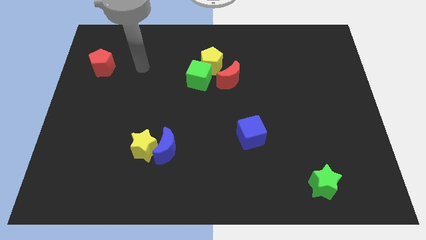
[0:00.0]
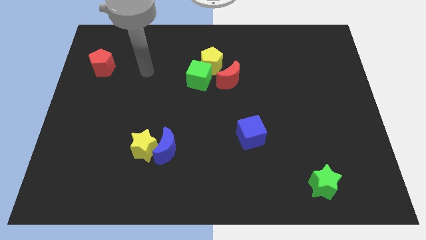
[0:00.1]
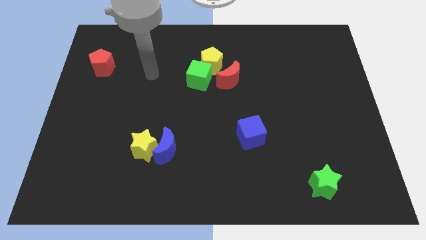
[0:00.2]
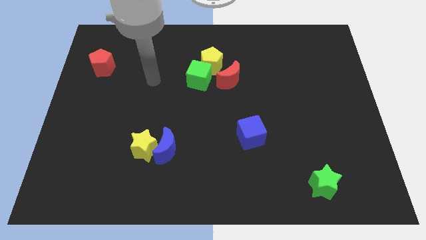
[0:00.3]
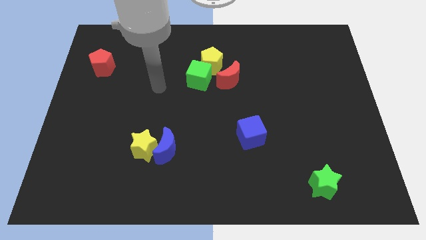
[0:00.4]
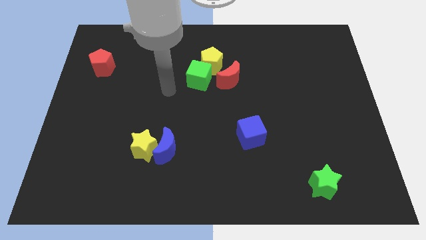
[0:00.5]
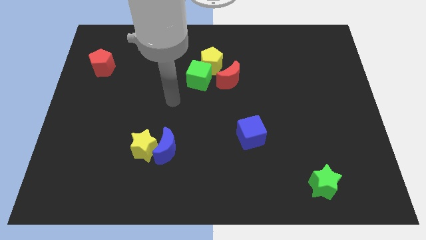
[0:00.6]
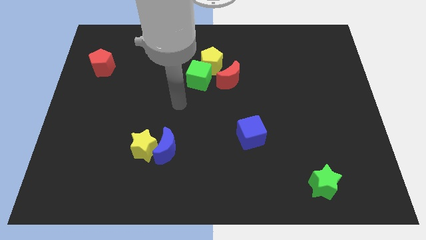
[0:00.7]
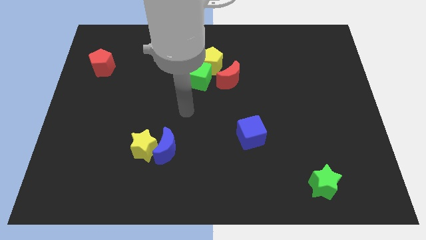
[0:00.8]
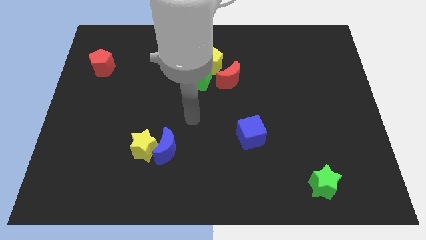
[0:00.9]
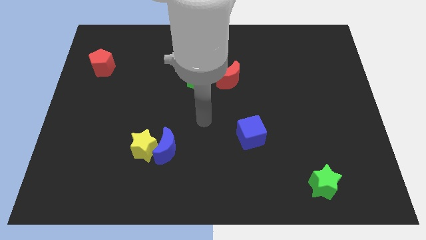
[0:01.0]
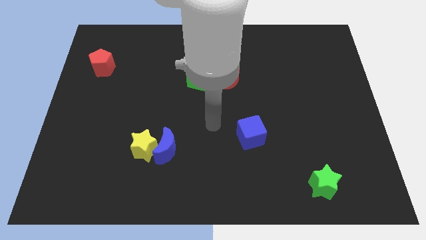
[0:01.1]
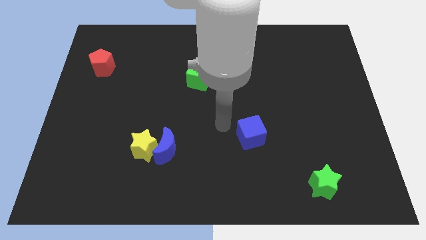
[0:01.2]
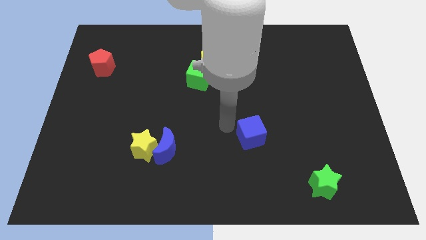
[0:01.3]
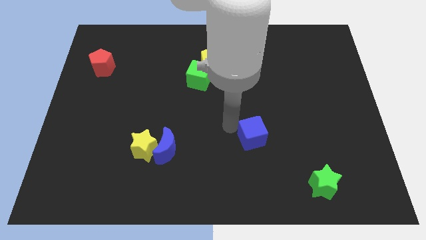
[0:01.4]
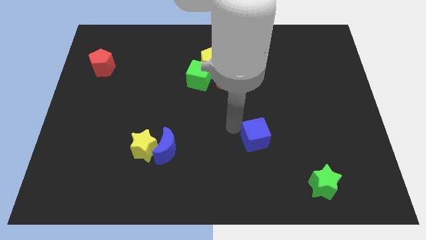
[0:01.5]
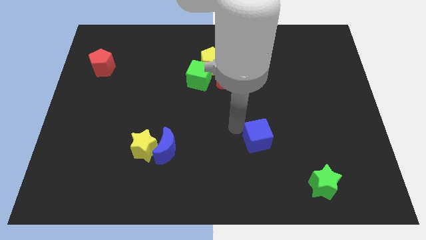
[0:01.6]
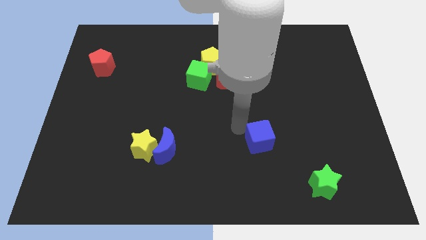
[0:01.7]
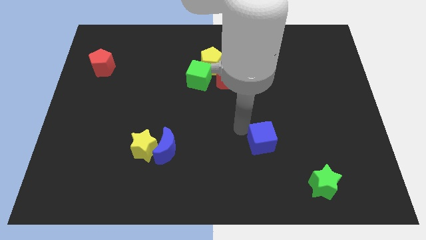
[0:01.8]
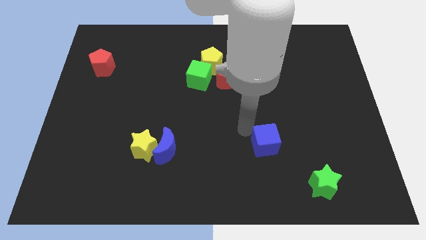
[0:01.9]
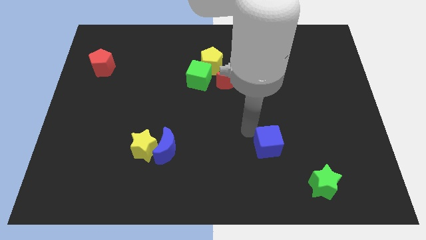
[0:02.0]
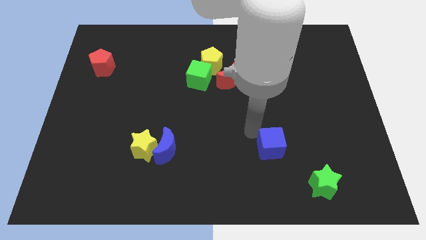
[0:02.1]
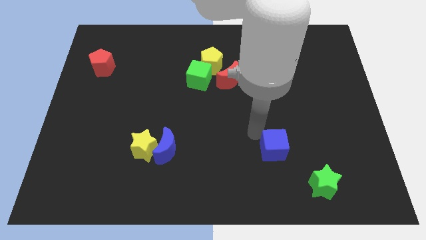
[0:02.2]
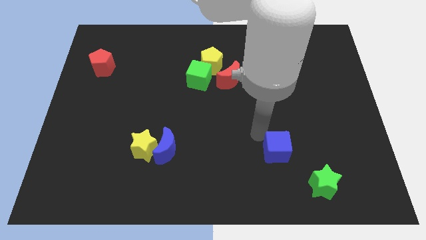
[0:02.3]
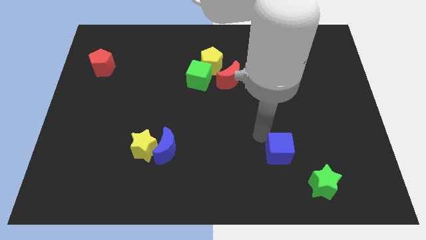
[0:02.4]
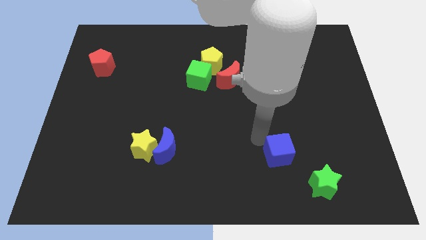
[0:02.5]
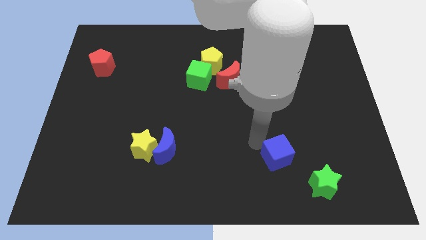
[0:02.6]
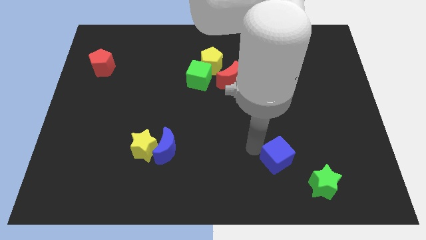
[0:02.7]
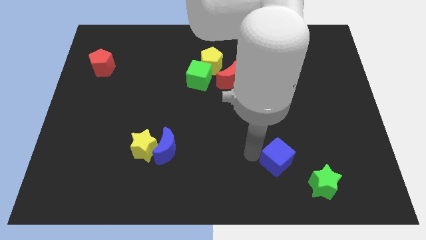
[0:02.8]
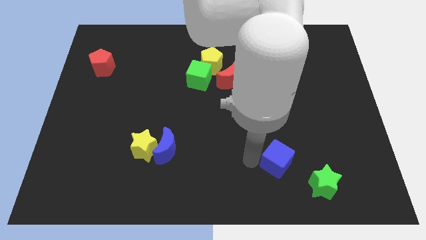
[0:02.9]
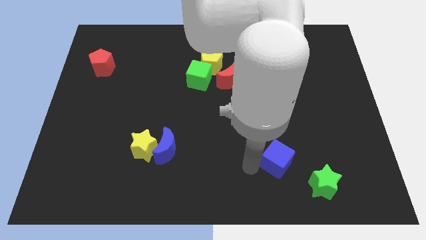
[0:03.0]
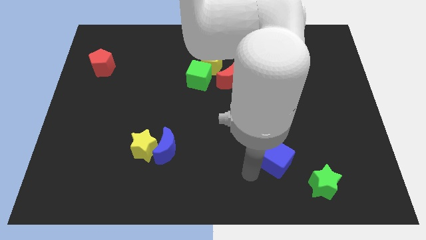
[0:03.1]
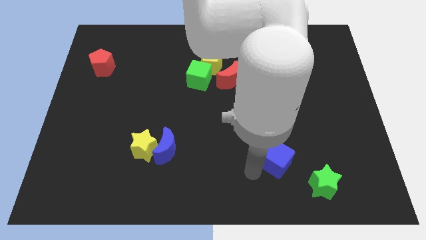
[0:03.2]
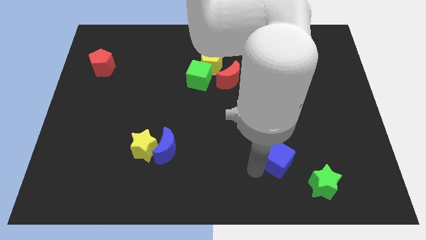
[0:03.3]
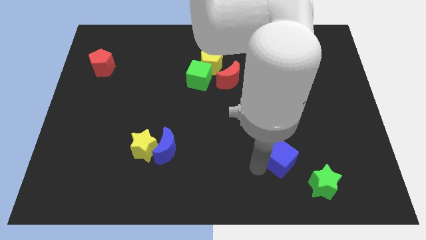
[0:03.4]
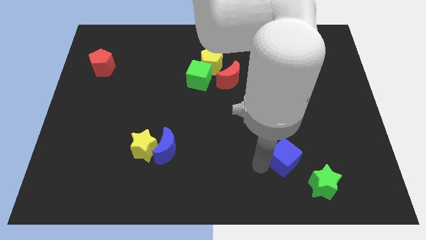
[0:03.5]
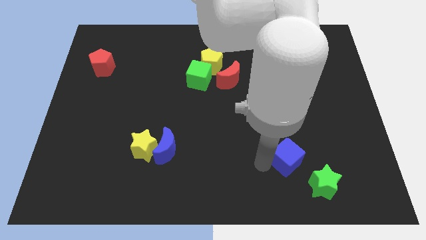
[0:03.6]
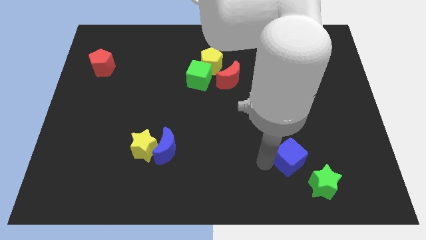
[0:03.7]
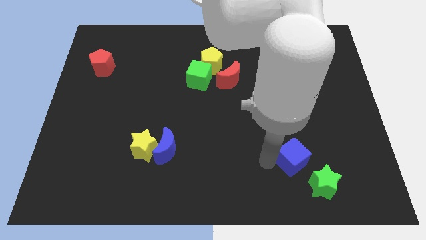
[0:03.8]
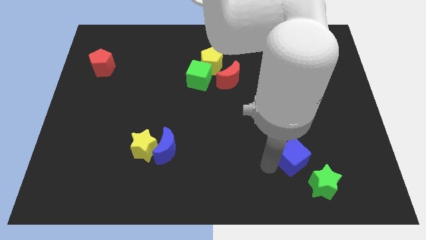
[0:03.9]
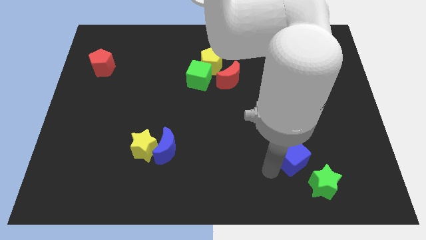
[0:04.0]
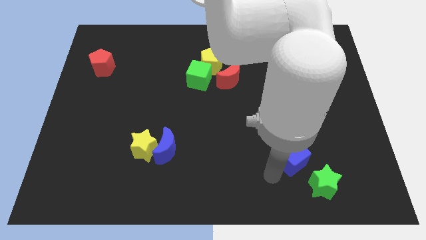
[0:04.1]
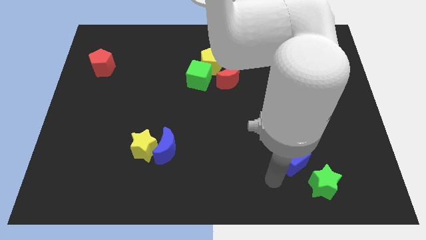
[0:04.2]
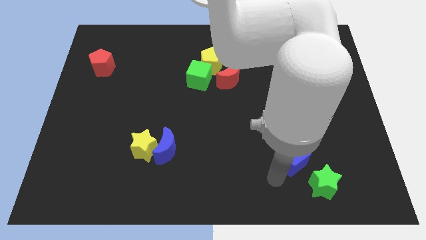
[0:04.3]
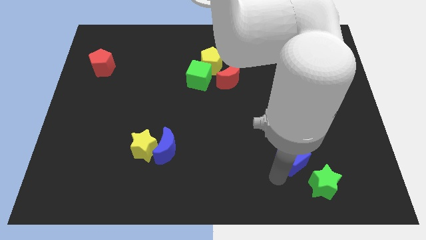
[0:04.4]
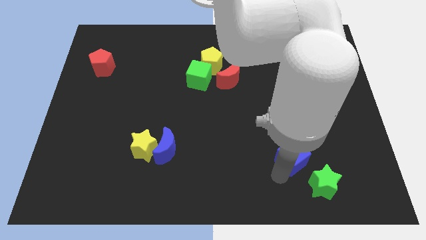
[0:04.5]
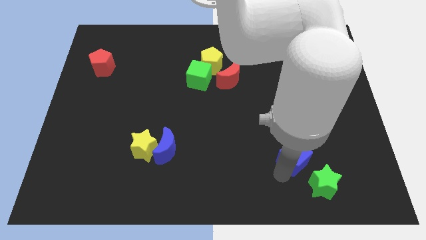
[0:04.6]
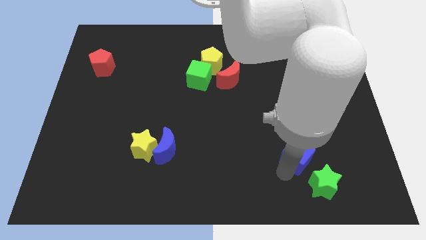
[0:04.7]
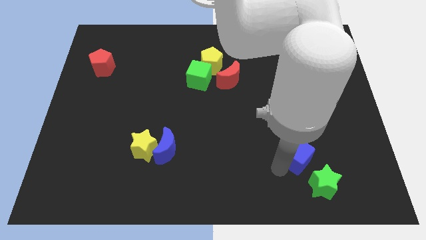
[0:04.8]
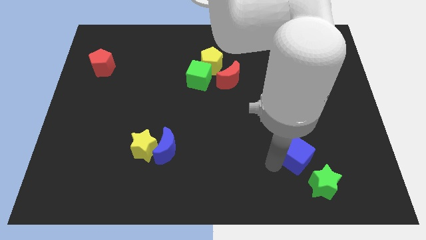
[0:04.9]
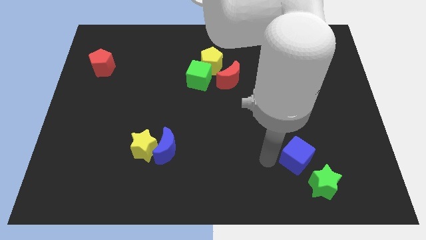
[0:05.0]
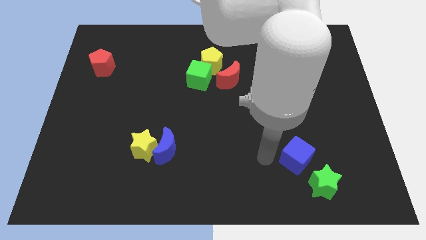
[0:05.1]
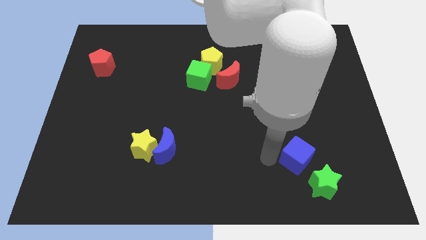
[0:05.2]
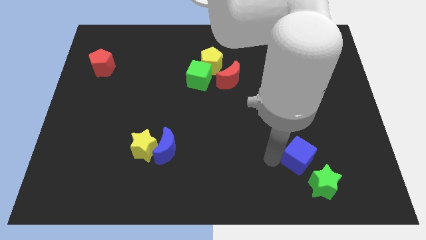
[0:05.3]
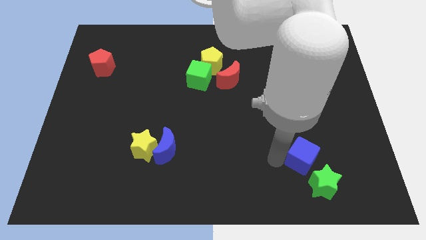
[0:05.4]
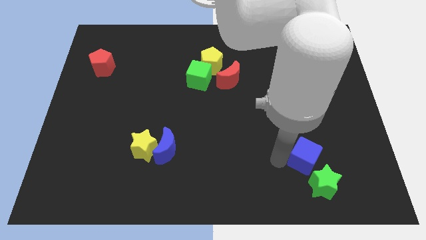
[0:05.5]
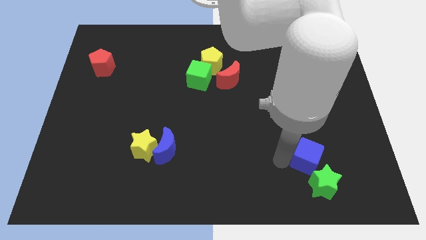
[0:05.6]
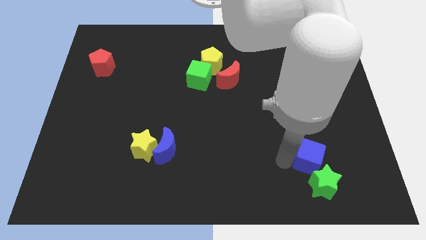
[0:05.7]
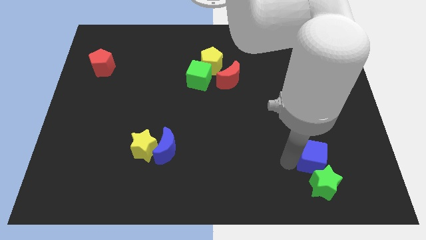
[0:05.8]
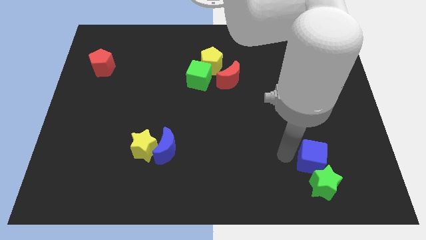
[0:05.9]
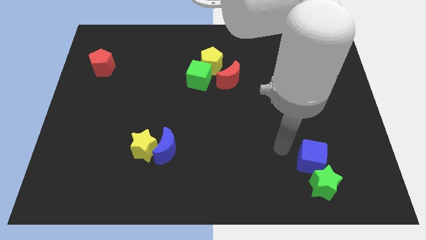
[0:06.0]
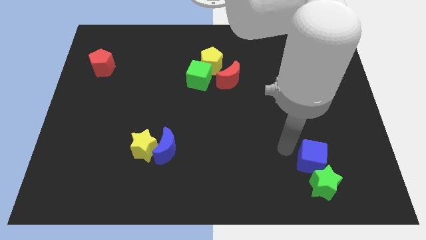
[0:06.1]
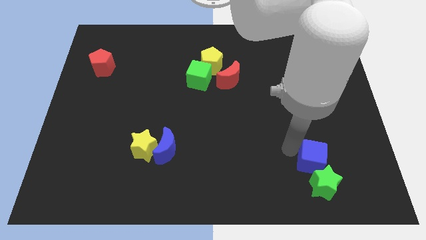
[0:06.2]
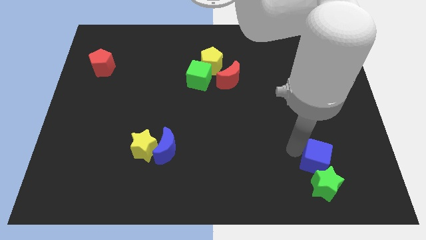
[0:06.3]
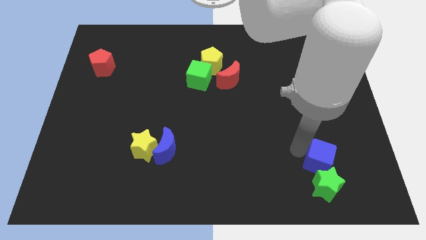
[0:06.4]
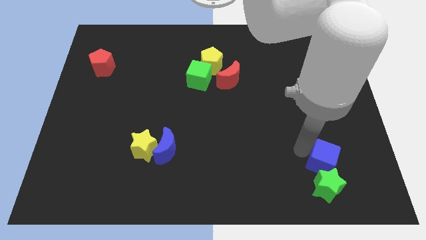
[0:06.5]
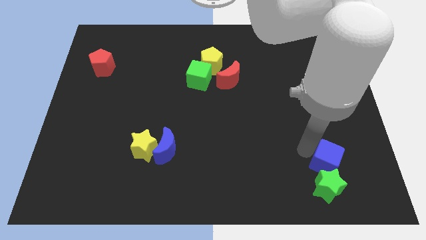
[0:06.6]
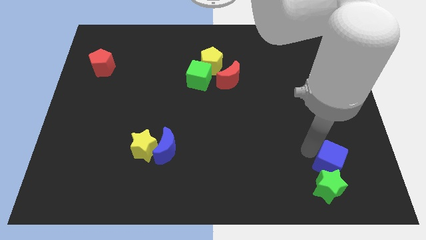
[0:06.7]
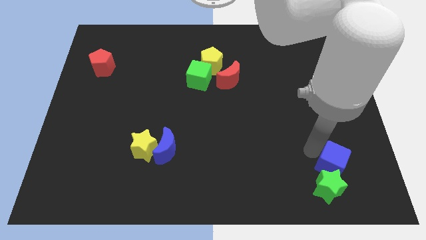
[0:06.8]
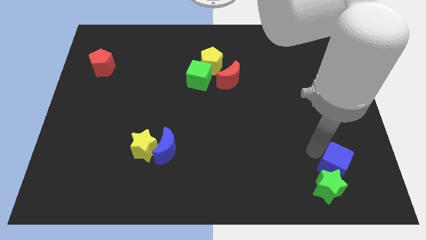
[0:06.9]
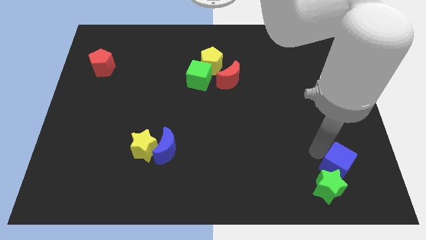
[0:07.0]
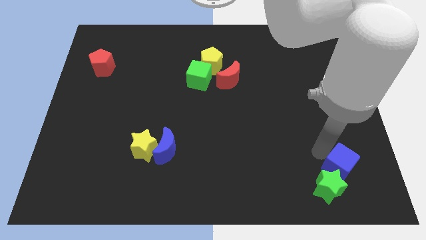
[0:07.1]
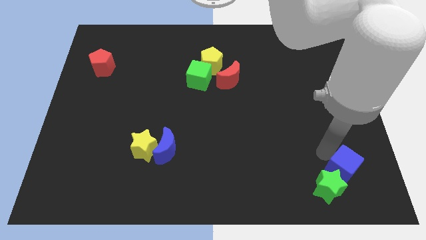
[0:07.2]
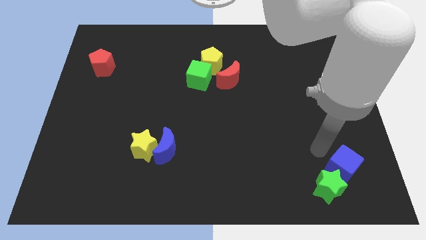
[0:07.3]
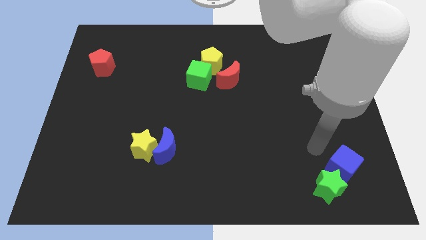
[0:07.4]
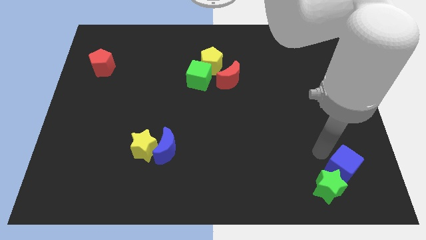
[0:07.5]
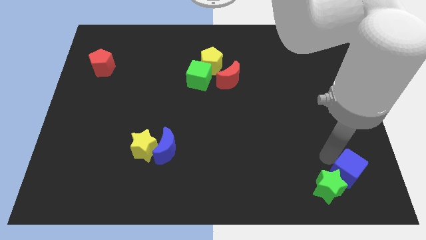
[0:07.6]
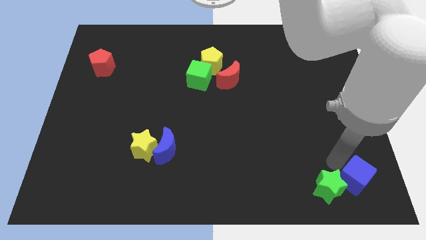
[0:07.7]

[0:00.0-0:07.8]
move the blue cube to the lower right corner
